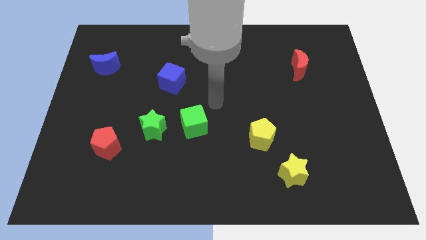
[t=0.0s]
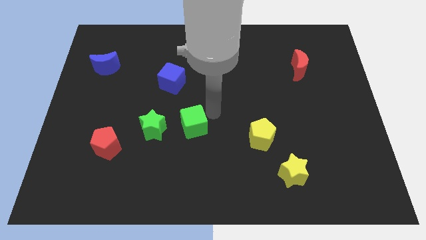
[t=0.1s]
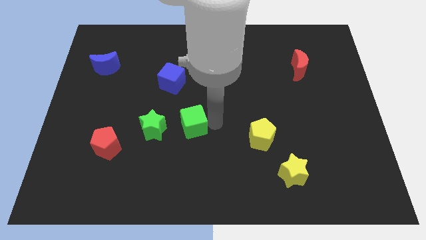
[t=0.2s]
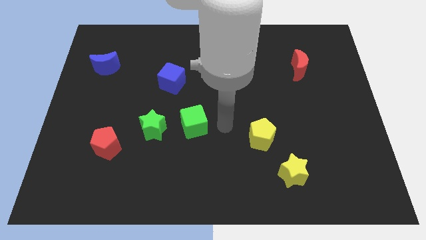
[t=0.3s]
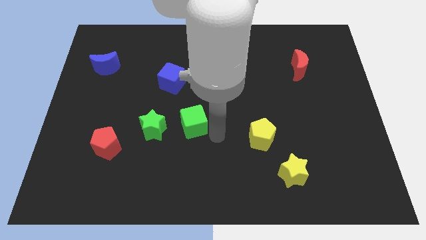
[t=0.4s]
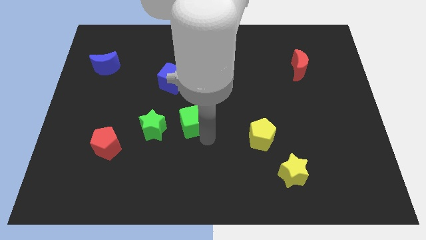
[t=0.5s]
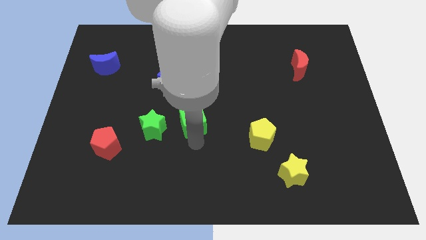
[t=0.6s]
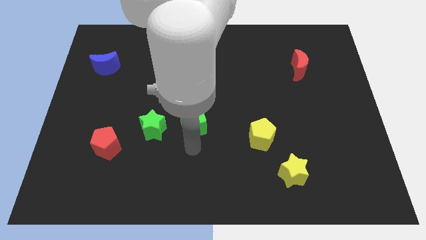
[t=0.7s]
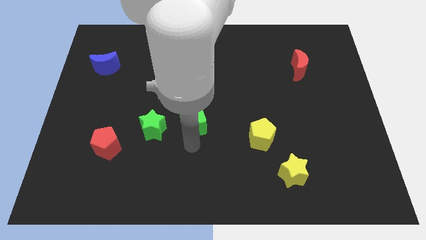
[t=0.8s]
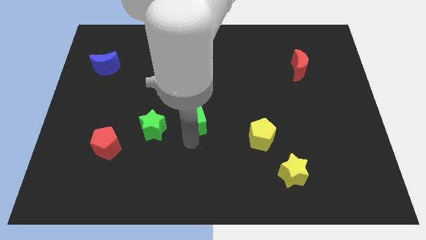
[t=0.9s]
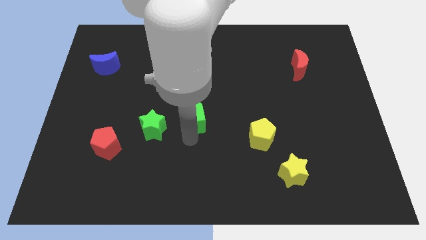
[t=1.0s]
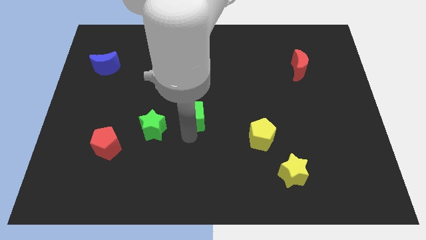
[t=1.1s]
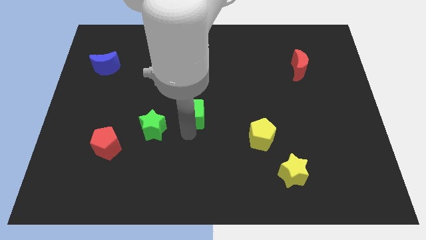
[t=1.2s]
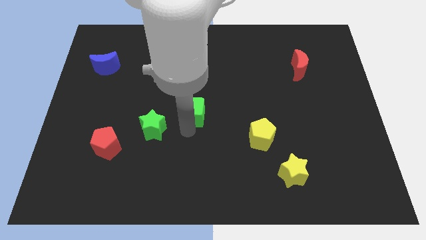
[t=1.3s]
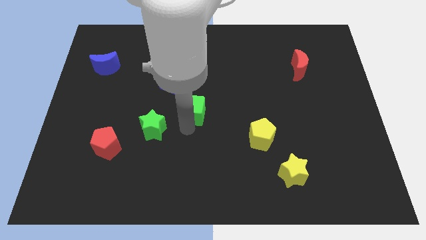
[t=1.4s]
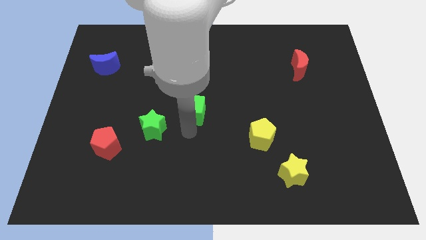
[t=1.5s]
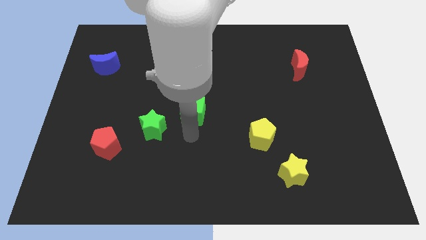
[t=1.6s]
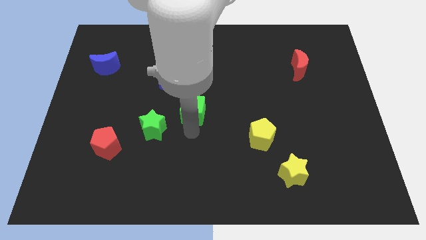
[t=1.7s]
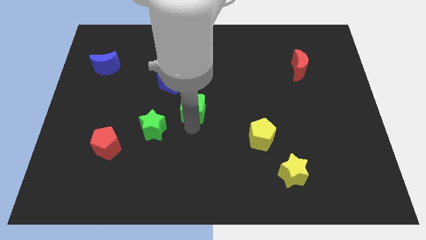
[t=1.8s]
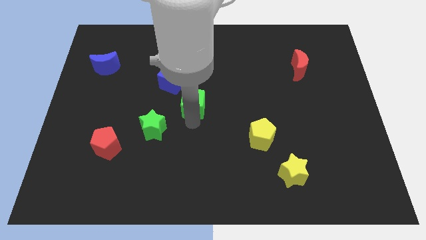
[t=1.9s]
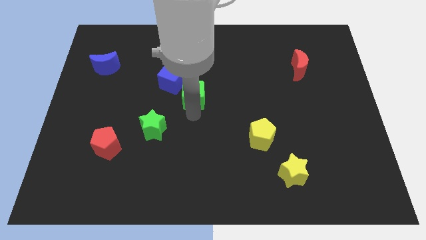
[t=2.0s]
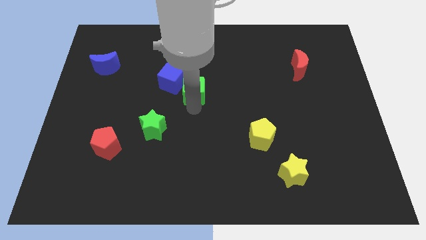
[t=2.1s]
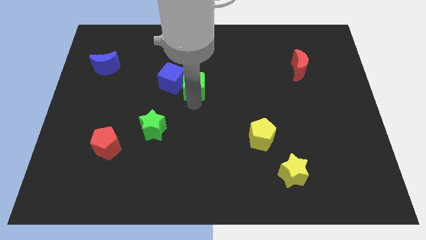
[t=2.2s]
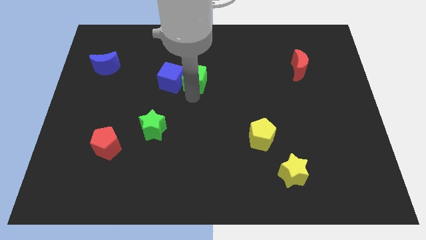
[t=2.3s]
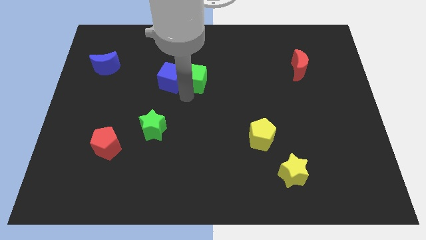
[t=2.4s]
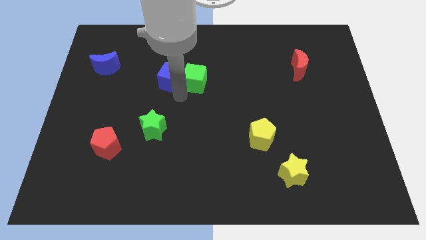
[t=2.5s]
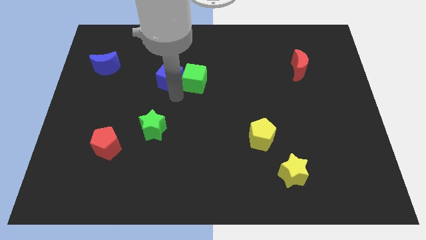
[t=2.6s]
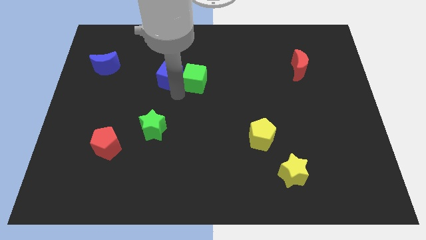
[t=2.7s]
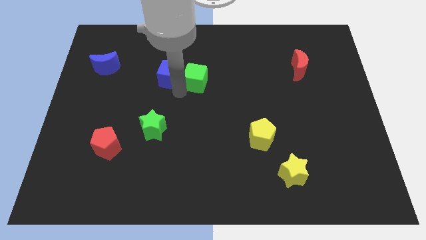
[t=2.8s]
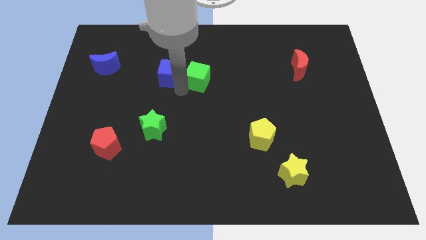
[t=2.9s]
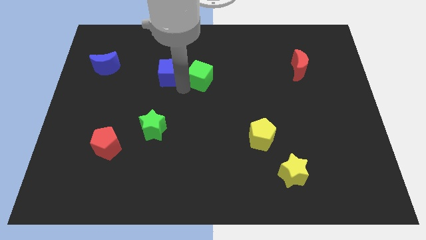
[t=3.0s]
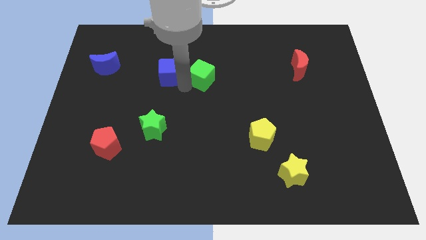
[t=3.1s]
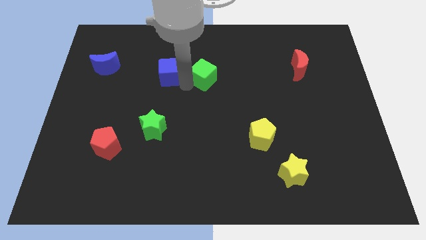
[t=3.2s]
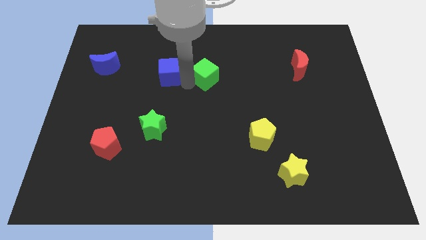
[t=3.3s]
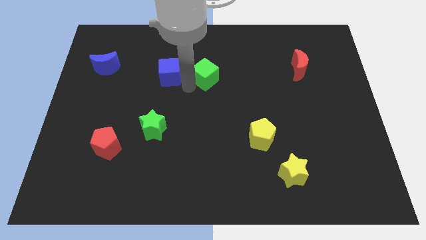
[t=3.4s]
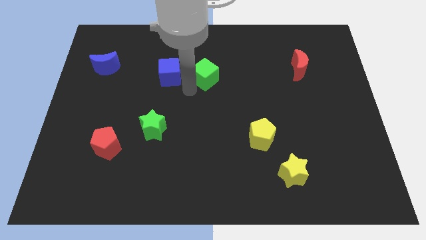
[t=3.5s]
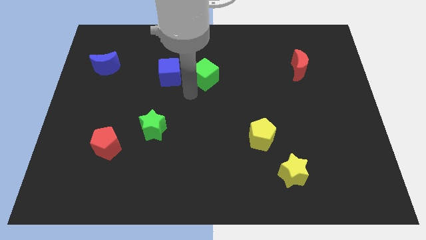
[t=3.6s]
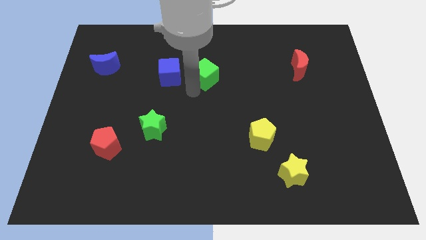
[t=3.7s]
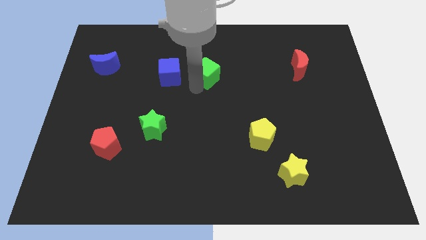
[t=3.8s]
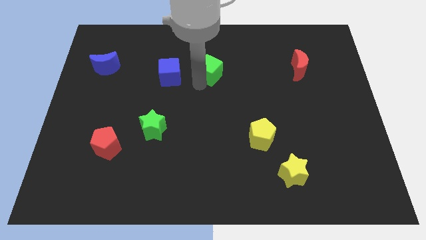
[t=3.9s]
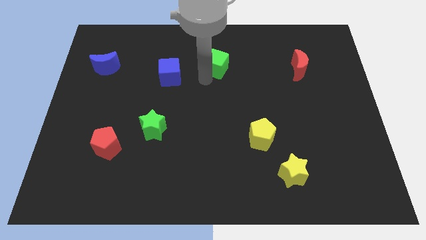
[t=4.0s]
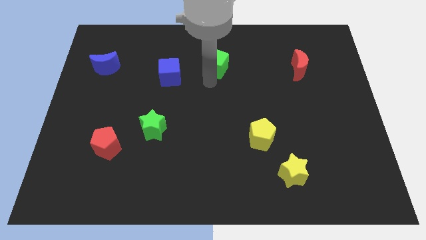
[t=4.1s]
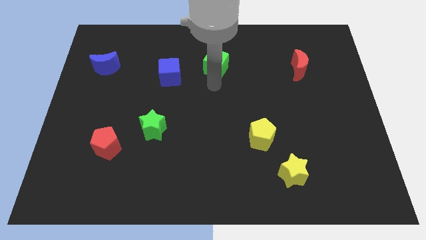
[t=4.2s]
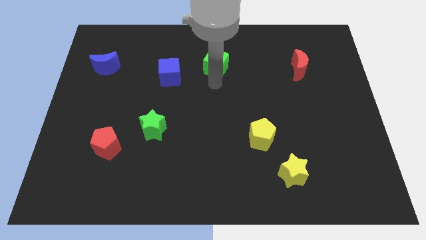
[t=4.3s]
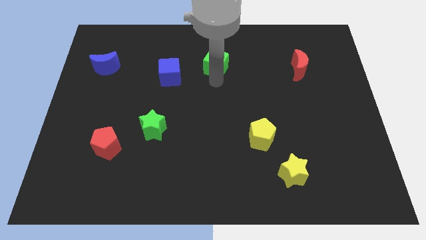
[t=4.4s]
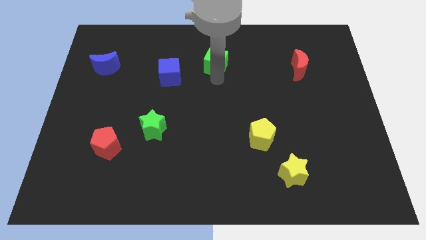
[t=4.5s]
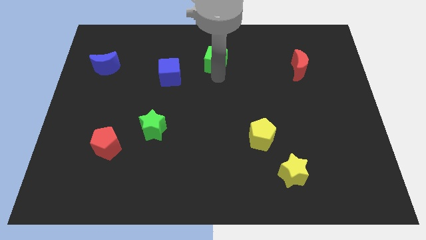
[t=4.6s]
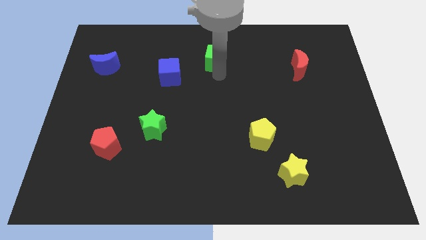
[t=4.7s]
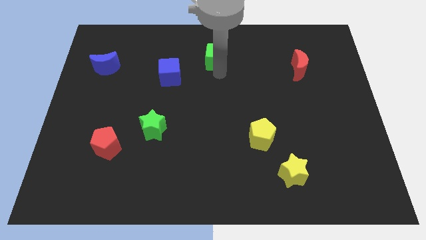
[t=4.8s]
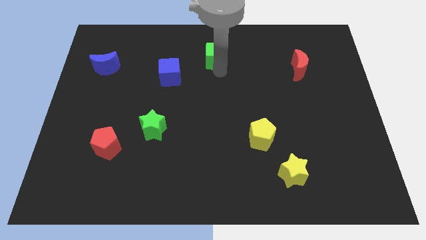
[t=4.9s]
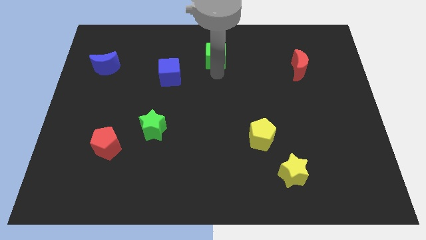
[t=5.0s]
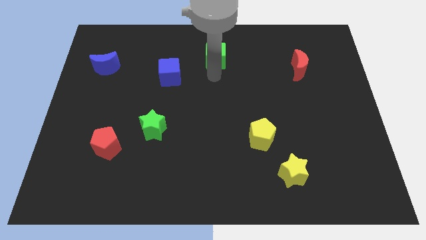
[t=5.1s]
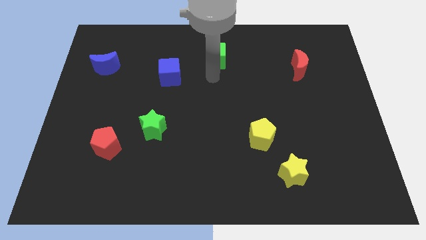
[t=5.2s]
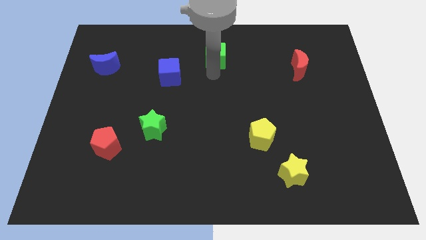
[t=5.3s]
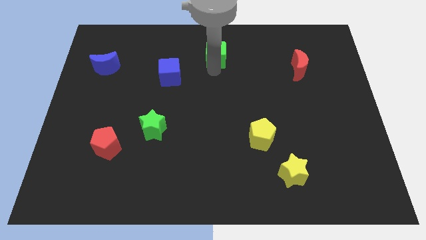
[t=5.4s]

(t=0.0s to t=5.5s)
push the green cube to the towards your base

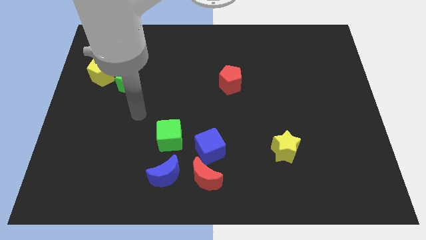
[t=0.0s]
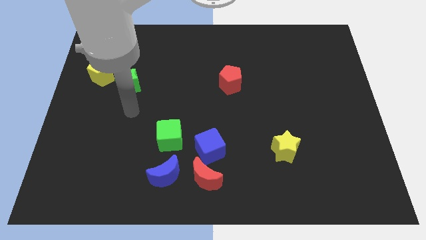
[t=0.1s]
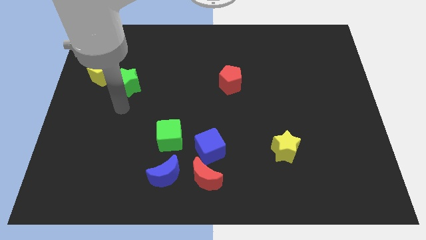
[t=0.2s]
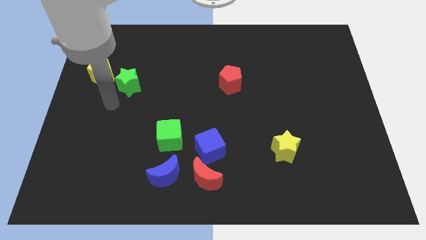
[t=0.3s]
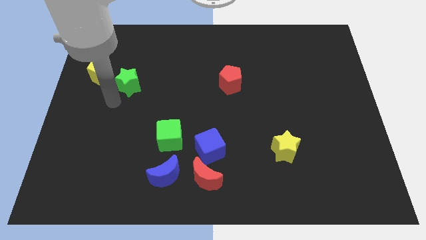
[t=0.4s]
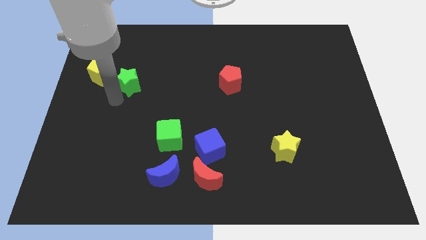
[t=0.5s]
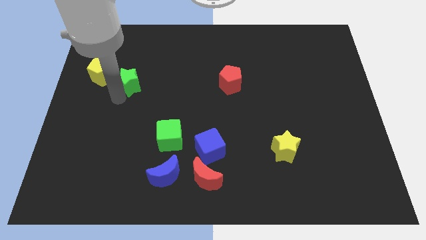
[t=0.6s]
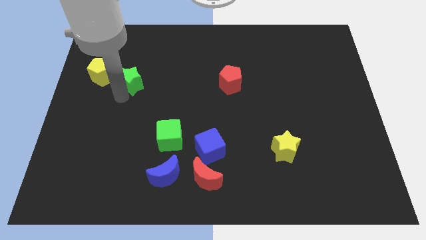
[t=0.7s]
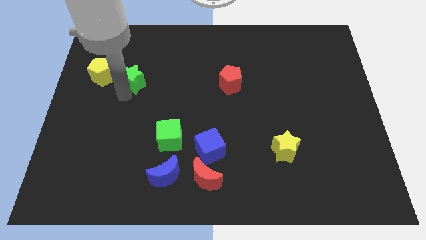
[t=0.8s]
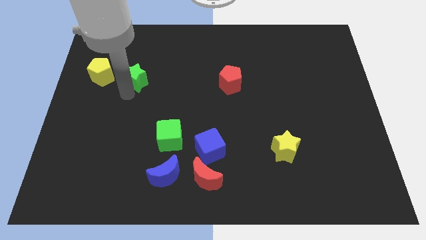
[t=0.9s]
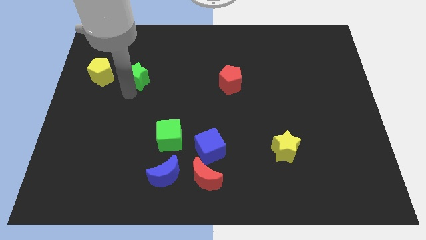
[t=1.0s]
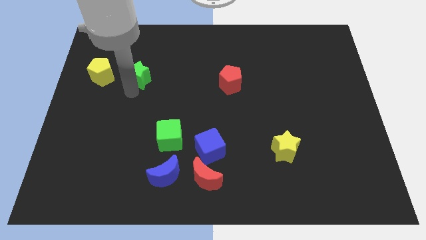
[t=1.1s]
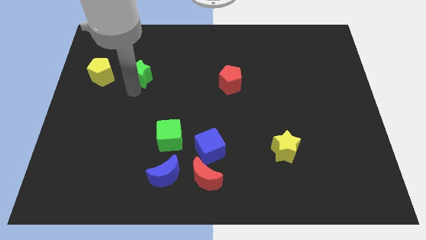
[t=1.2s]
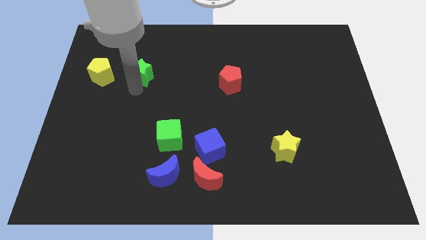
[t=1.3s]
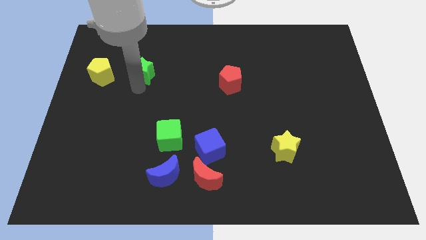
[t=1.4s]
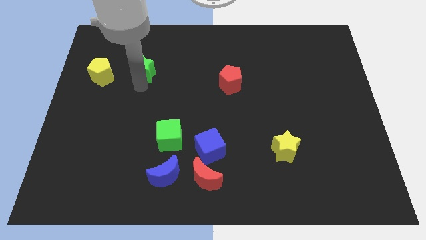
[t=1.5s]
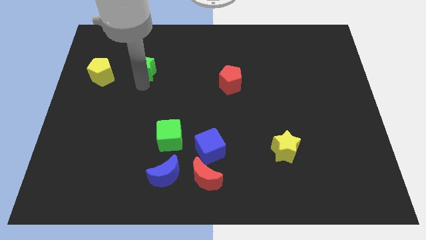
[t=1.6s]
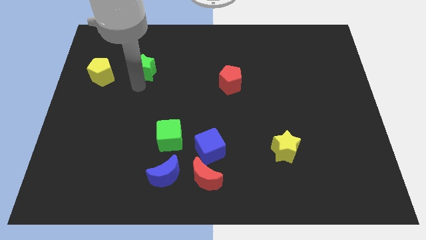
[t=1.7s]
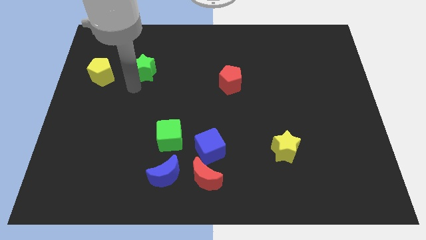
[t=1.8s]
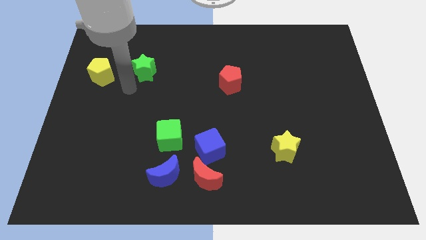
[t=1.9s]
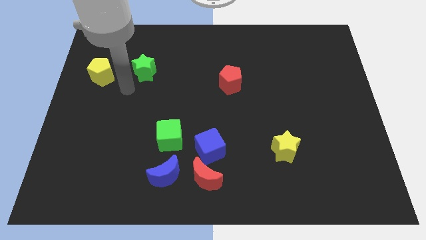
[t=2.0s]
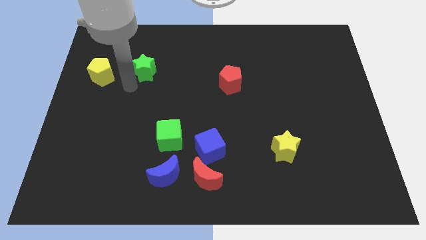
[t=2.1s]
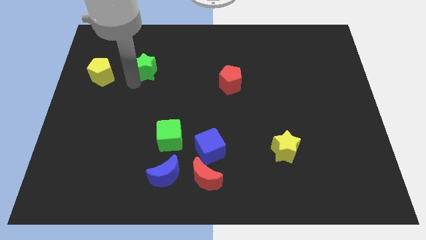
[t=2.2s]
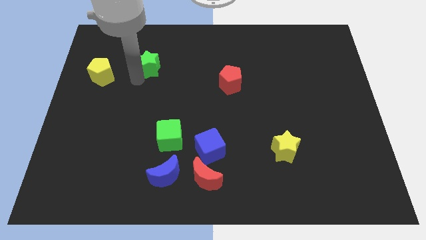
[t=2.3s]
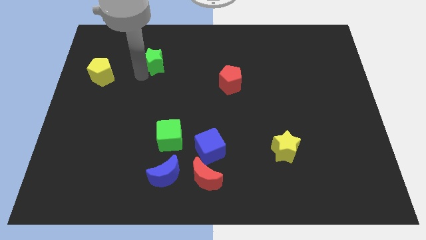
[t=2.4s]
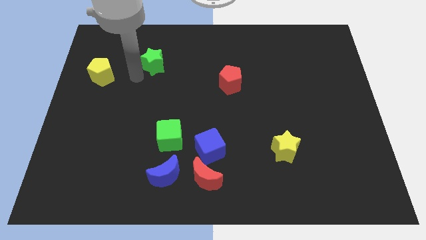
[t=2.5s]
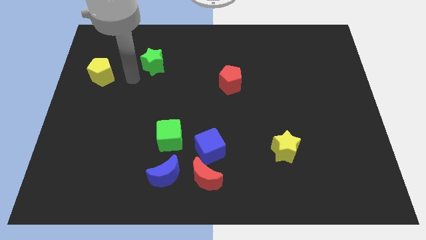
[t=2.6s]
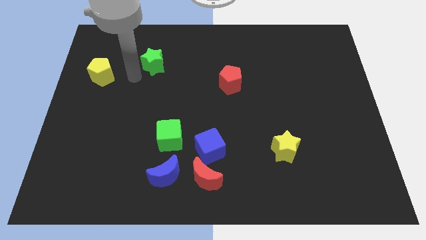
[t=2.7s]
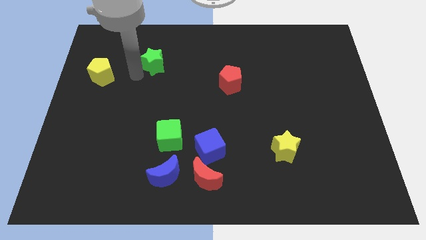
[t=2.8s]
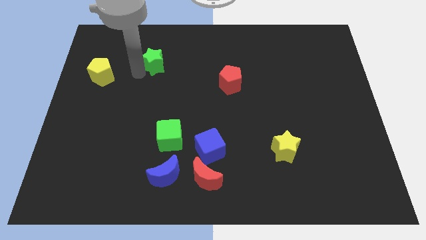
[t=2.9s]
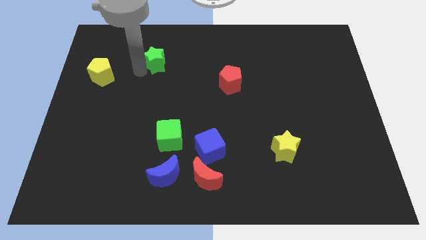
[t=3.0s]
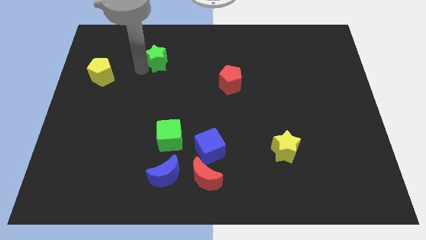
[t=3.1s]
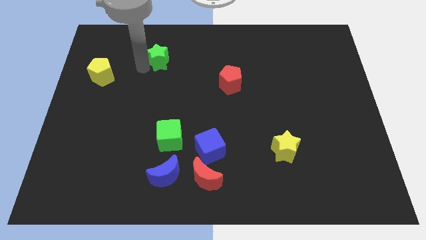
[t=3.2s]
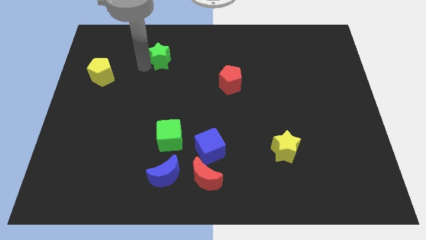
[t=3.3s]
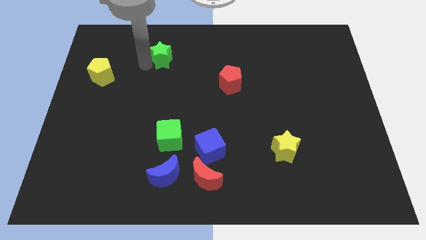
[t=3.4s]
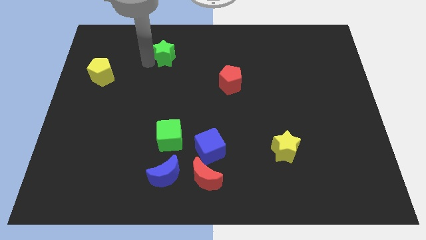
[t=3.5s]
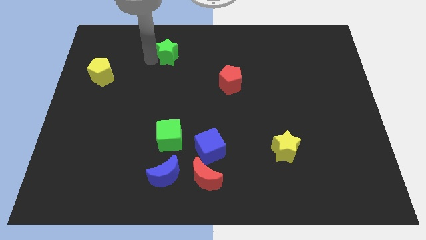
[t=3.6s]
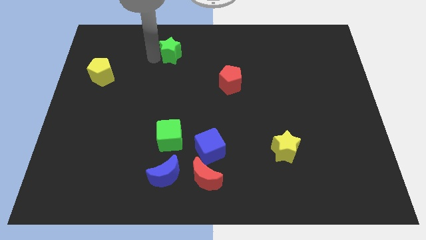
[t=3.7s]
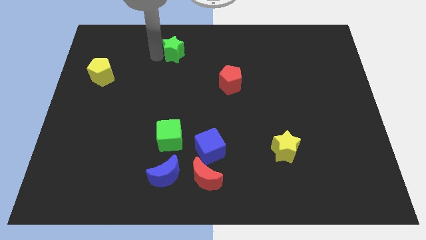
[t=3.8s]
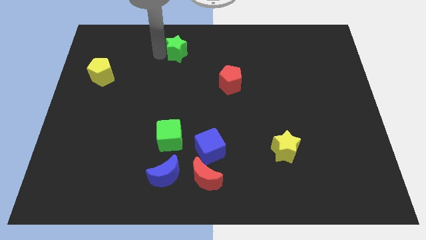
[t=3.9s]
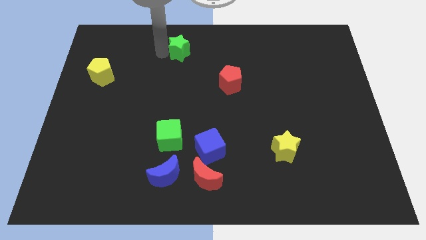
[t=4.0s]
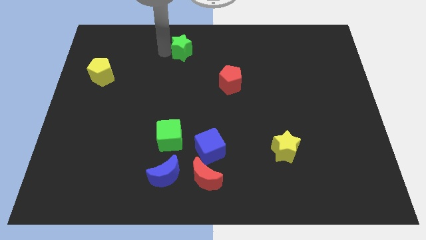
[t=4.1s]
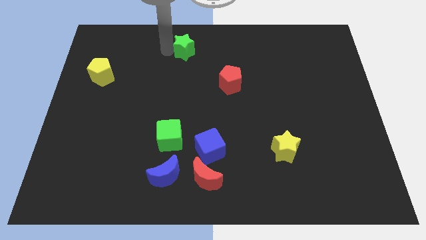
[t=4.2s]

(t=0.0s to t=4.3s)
push the green star to the top side
